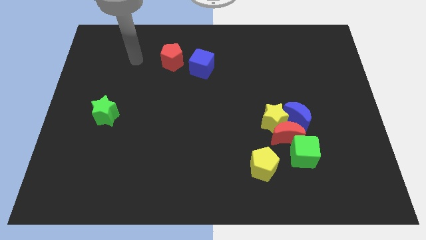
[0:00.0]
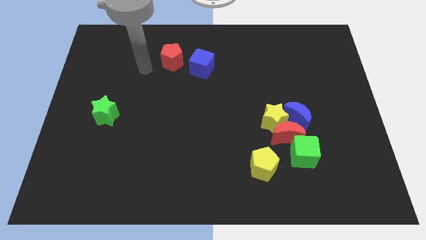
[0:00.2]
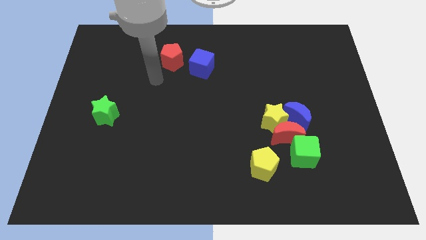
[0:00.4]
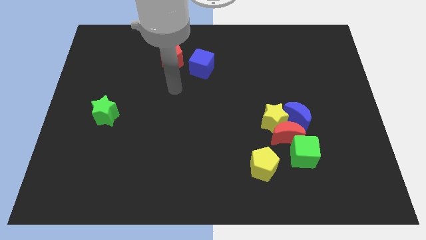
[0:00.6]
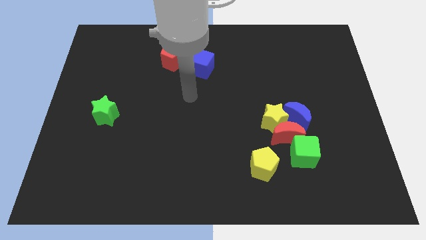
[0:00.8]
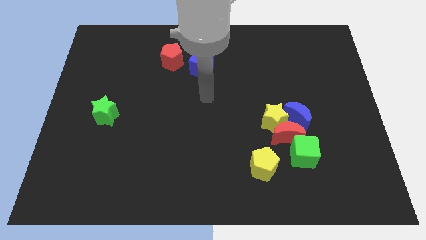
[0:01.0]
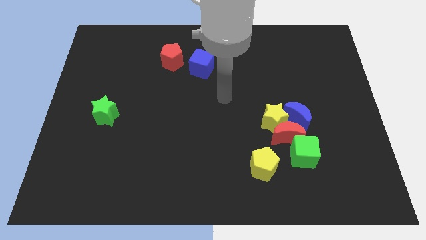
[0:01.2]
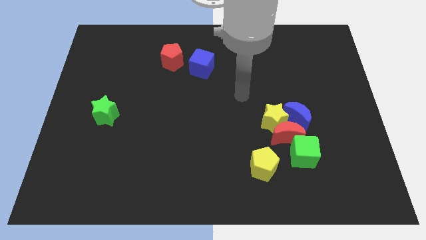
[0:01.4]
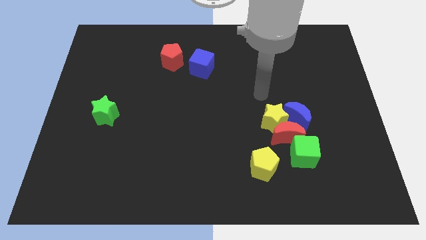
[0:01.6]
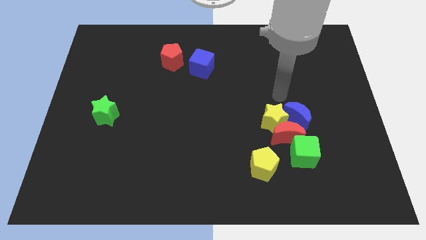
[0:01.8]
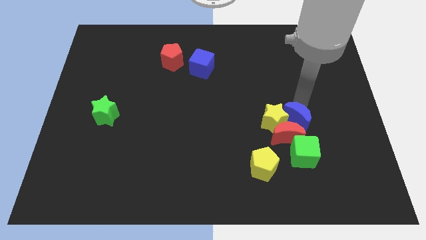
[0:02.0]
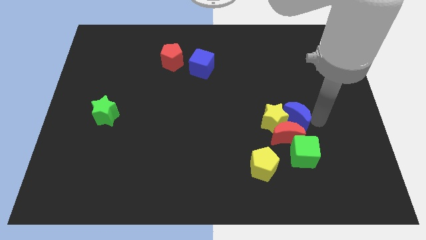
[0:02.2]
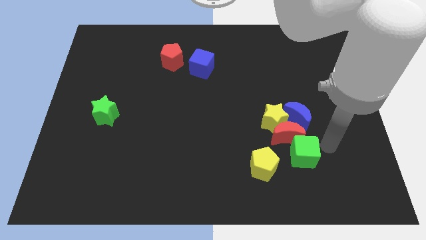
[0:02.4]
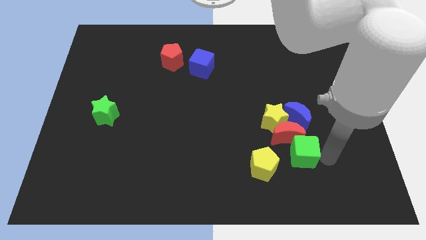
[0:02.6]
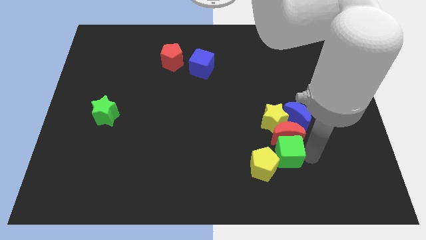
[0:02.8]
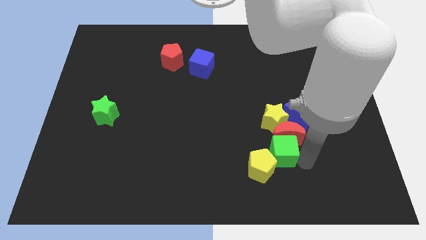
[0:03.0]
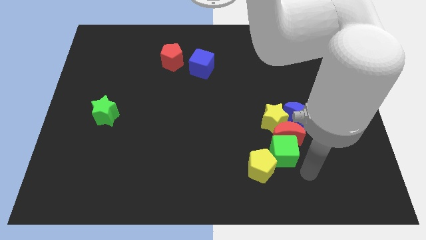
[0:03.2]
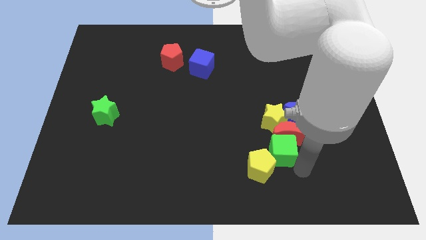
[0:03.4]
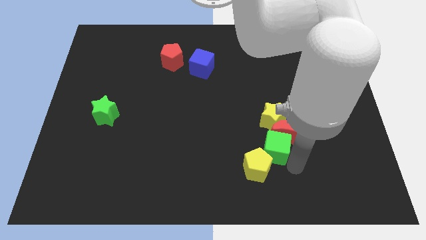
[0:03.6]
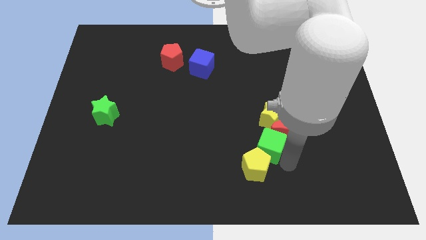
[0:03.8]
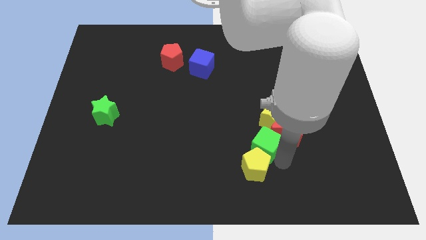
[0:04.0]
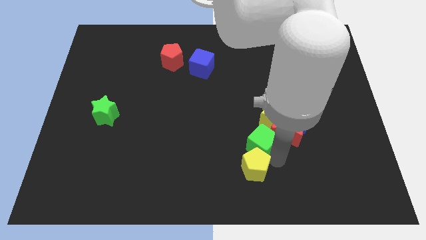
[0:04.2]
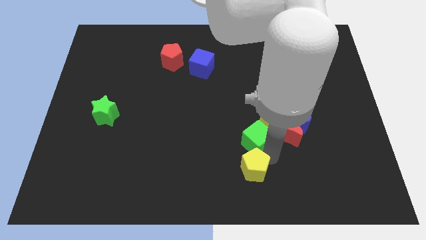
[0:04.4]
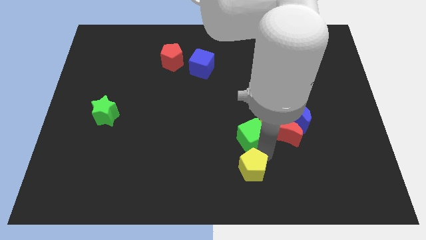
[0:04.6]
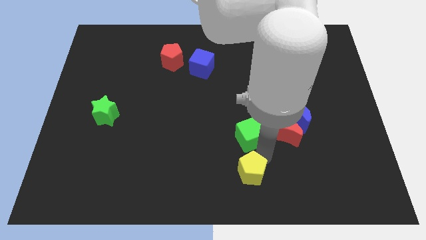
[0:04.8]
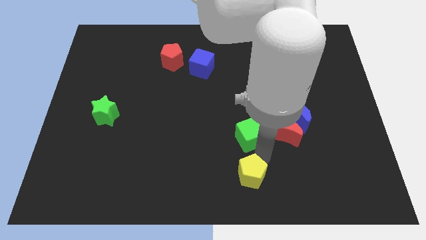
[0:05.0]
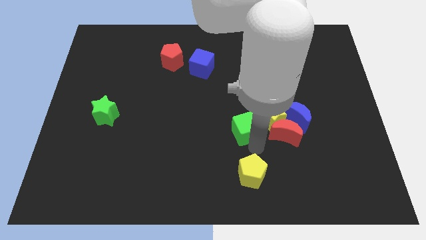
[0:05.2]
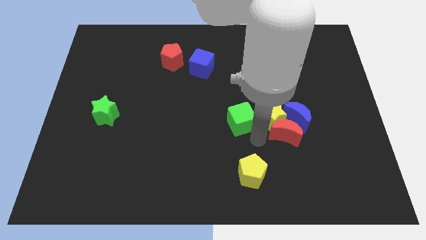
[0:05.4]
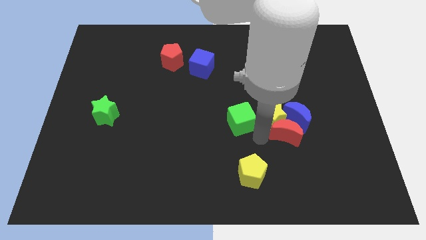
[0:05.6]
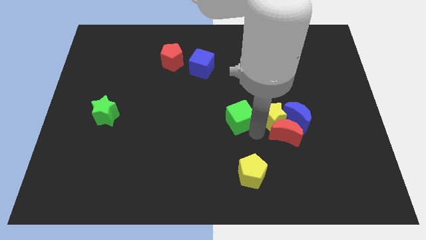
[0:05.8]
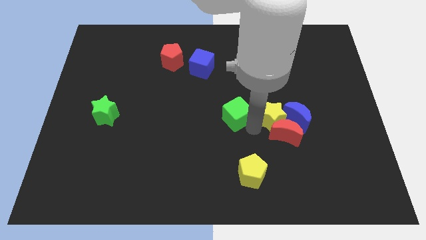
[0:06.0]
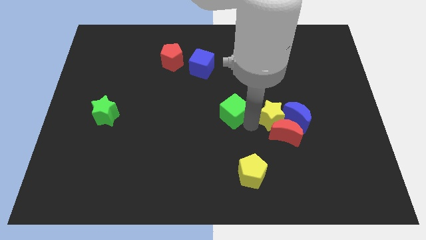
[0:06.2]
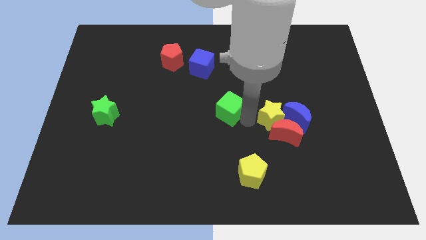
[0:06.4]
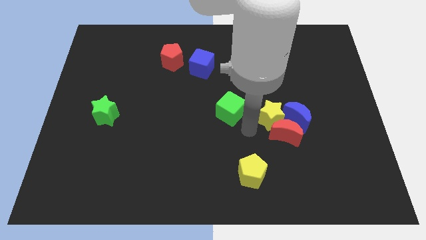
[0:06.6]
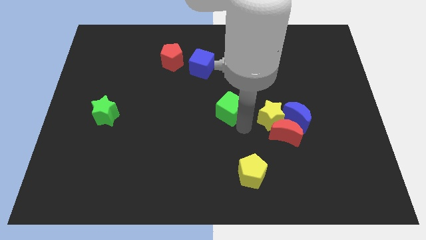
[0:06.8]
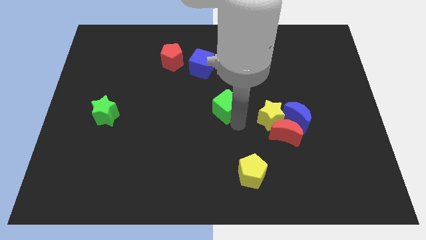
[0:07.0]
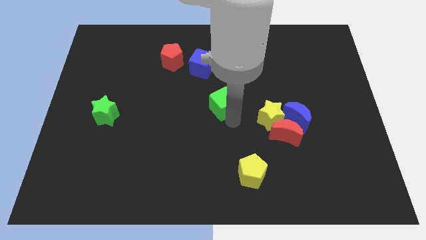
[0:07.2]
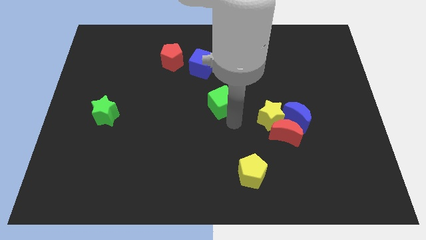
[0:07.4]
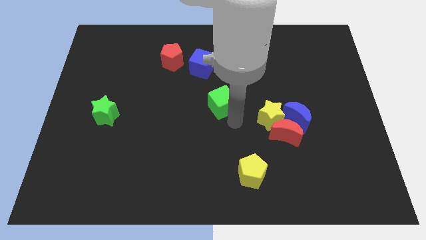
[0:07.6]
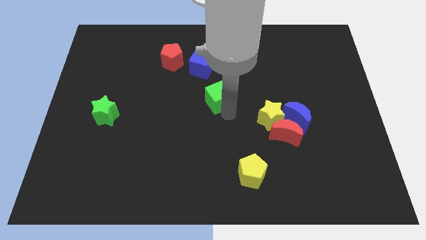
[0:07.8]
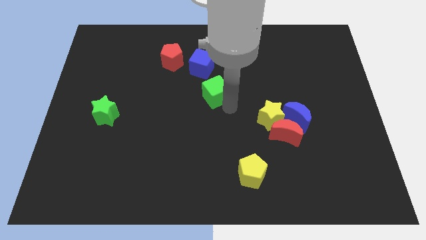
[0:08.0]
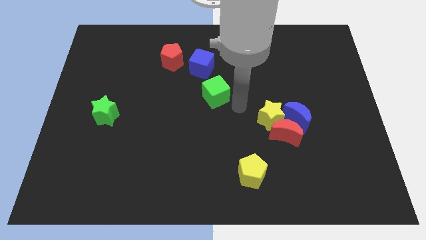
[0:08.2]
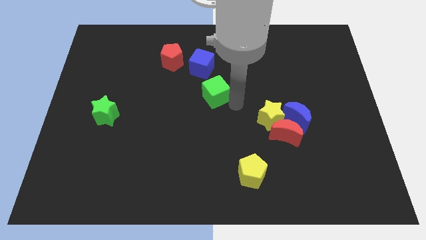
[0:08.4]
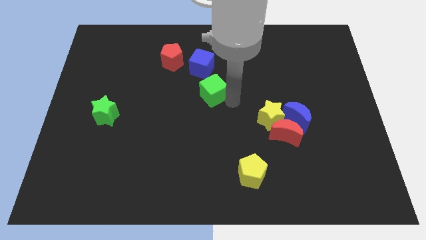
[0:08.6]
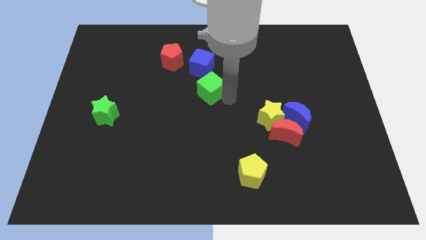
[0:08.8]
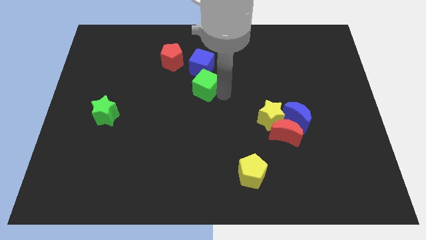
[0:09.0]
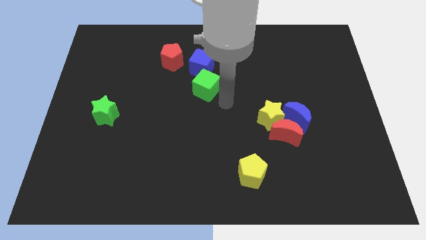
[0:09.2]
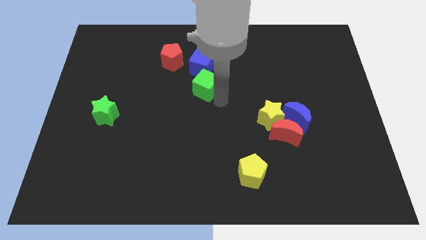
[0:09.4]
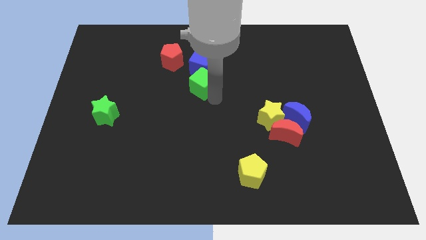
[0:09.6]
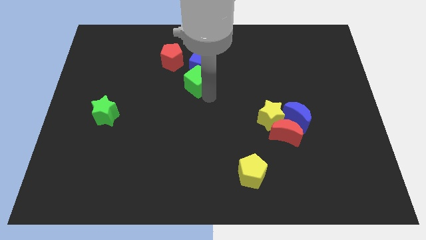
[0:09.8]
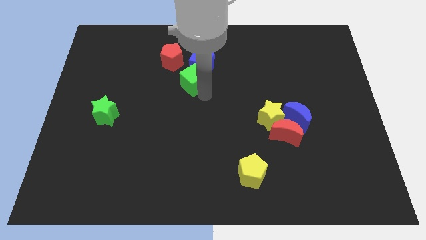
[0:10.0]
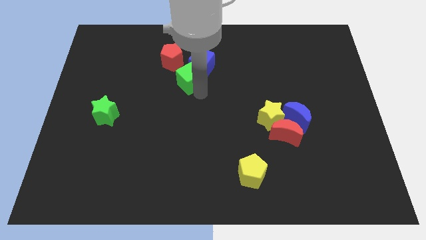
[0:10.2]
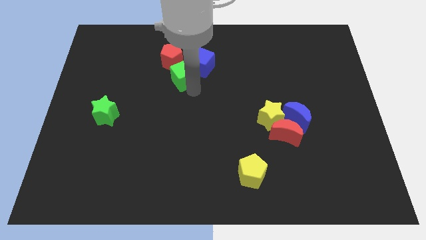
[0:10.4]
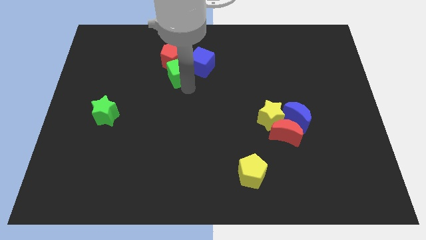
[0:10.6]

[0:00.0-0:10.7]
push the green cube next to the red pentagon

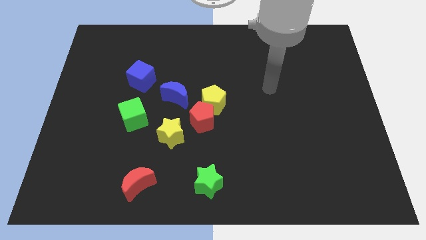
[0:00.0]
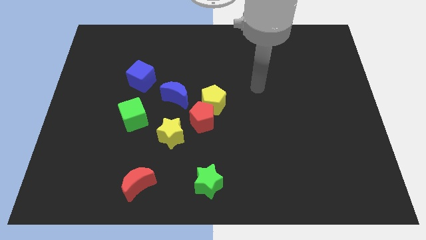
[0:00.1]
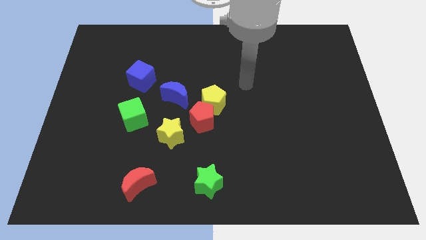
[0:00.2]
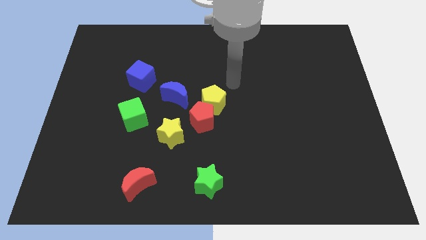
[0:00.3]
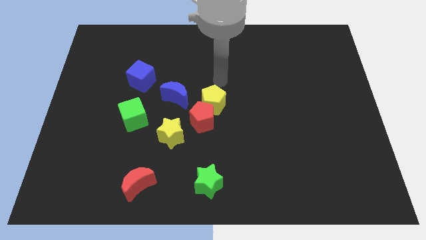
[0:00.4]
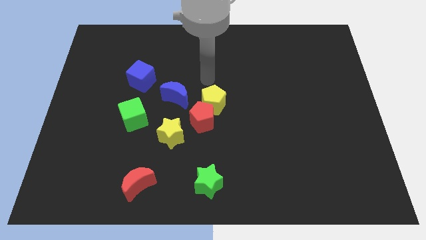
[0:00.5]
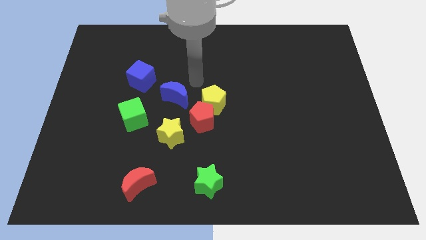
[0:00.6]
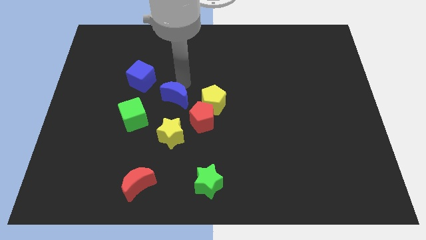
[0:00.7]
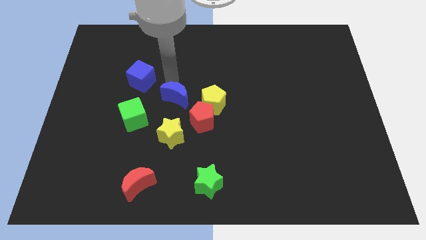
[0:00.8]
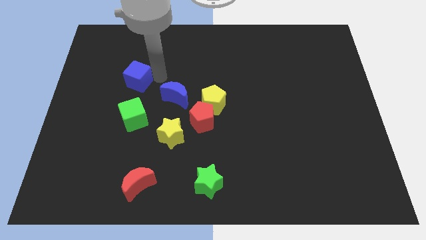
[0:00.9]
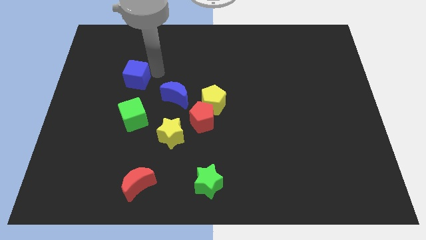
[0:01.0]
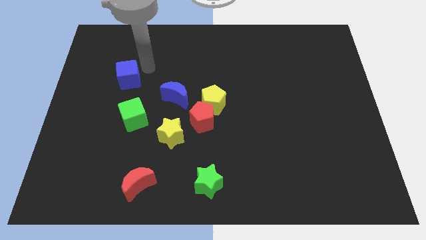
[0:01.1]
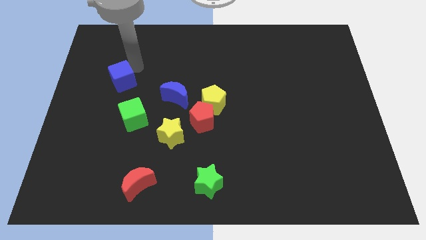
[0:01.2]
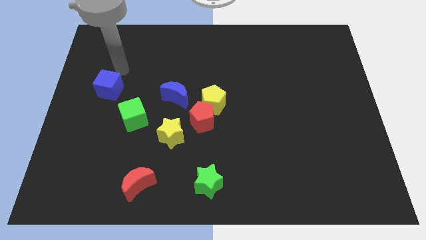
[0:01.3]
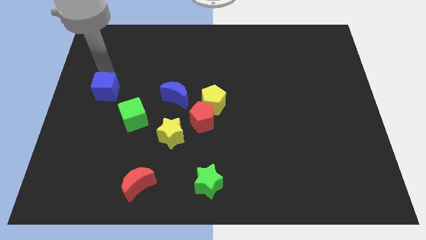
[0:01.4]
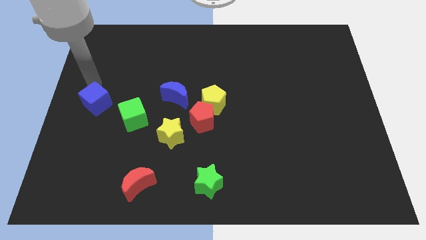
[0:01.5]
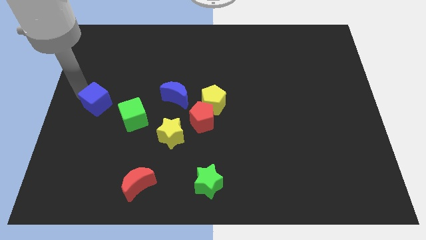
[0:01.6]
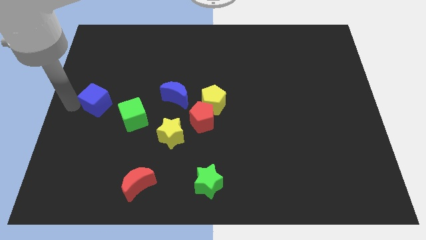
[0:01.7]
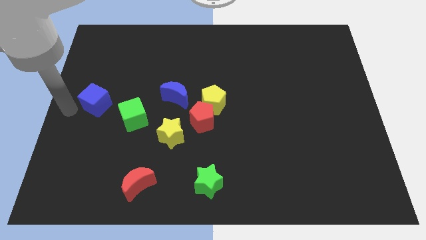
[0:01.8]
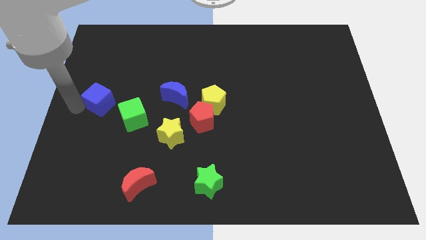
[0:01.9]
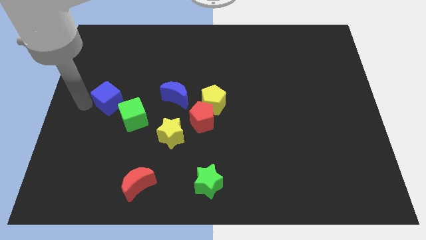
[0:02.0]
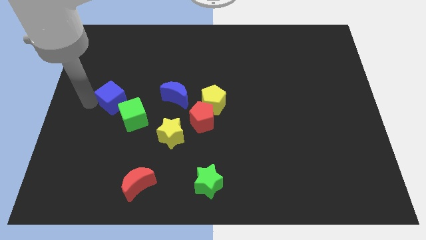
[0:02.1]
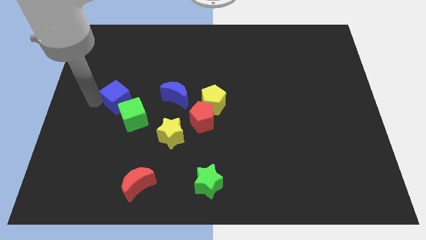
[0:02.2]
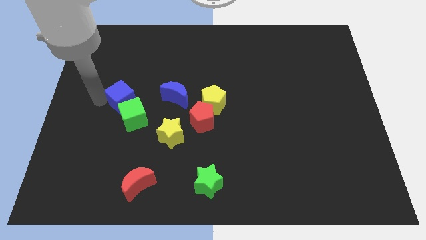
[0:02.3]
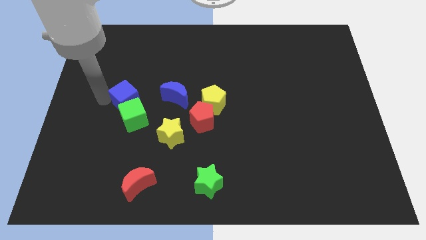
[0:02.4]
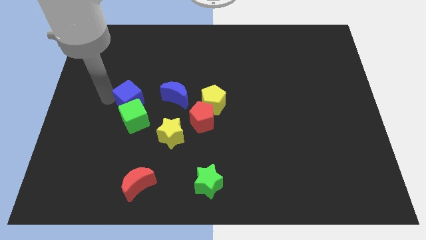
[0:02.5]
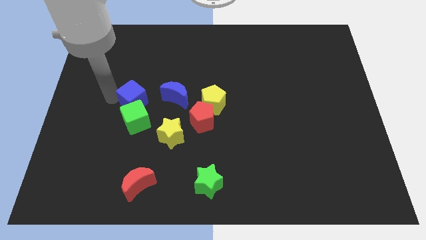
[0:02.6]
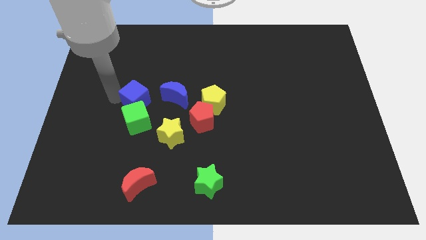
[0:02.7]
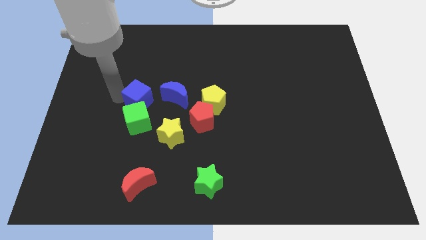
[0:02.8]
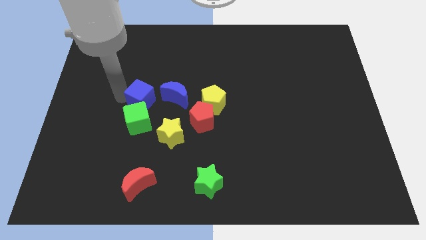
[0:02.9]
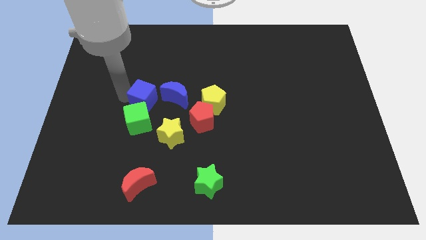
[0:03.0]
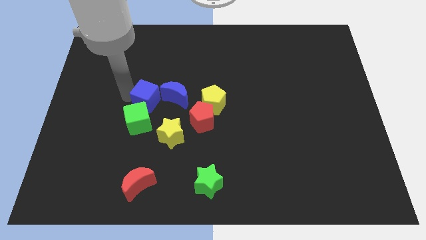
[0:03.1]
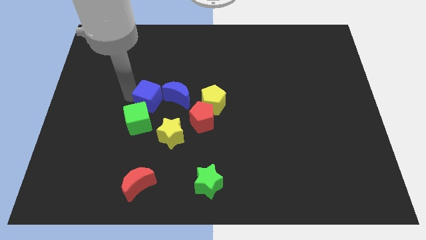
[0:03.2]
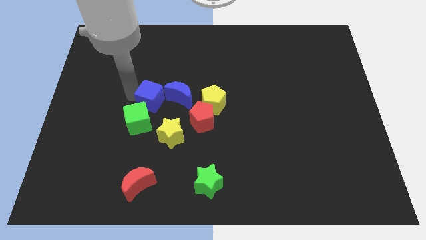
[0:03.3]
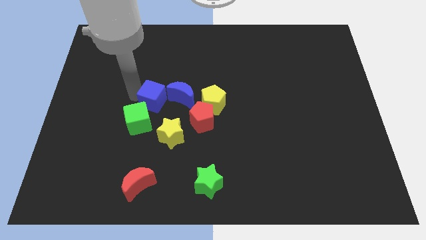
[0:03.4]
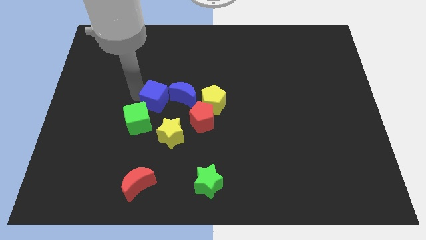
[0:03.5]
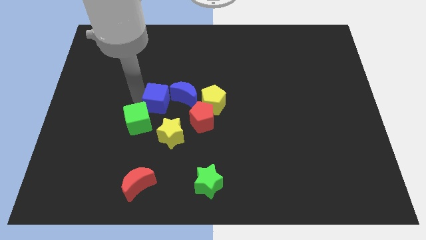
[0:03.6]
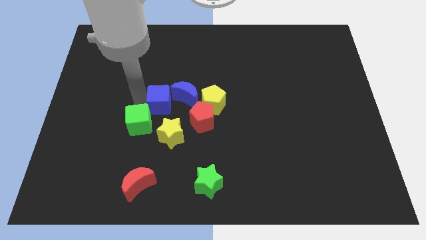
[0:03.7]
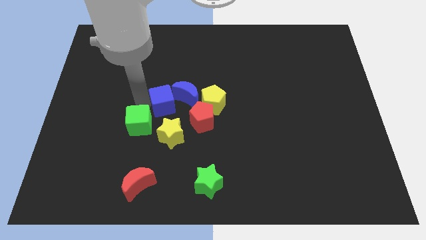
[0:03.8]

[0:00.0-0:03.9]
move the blue cube to the blue moon
